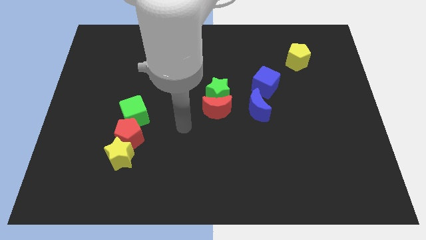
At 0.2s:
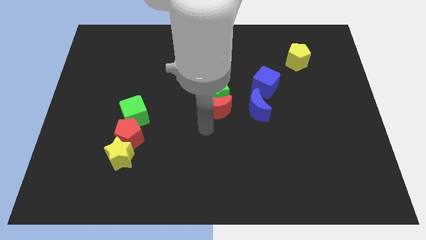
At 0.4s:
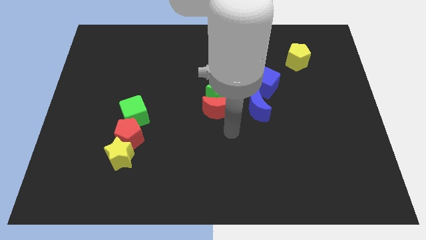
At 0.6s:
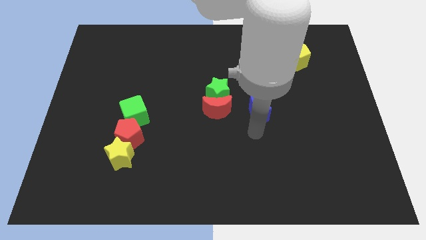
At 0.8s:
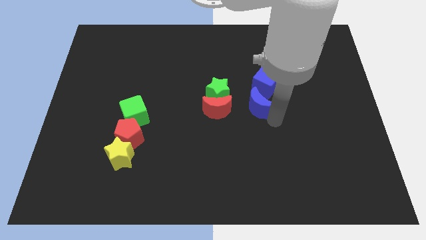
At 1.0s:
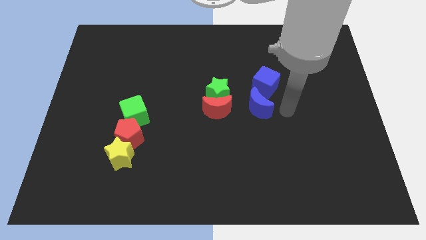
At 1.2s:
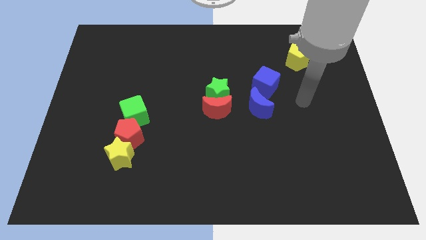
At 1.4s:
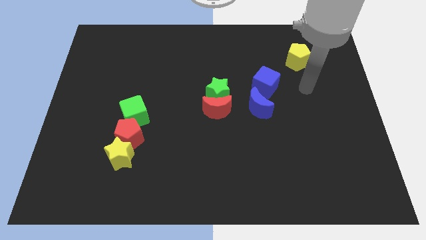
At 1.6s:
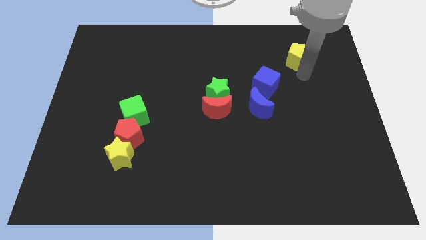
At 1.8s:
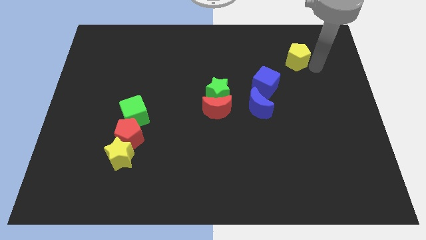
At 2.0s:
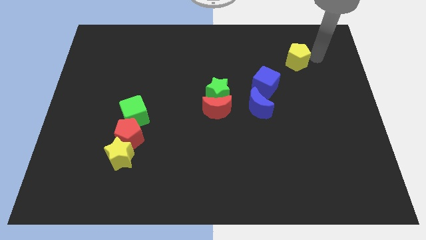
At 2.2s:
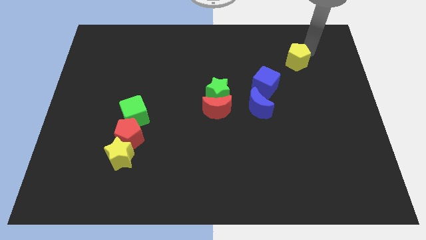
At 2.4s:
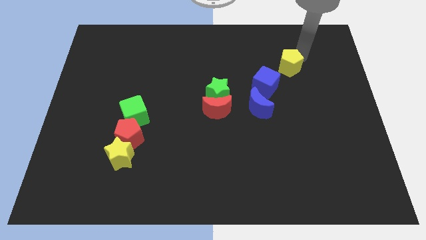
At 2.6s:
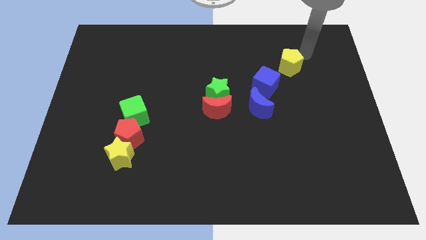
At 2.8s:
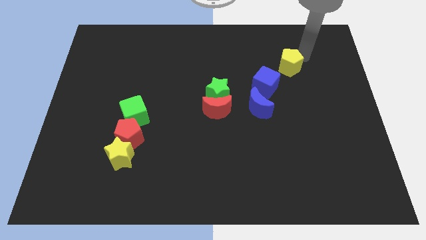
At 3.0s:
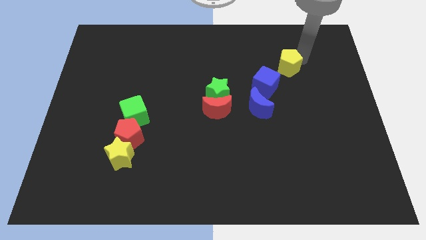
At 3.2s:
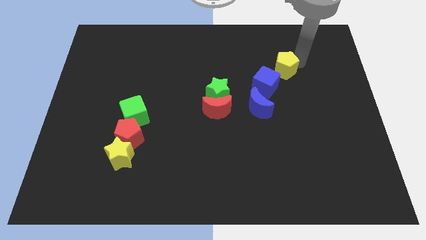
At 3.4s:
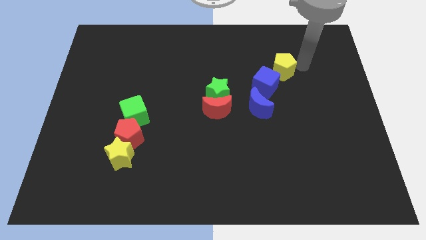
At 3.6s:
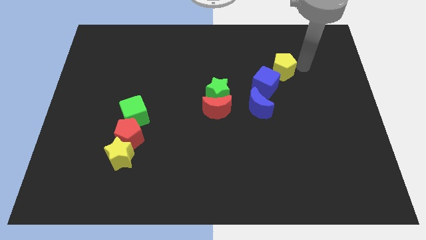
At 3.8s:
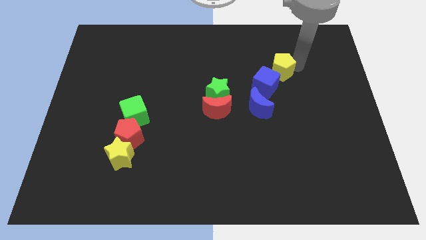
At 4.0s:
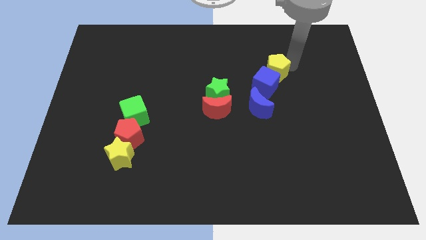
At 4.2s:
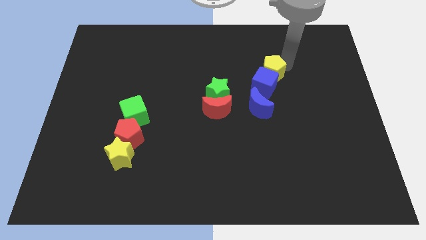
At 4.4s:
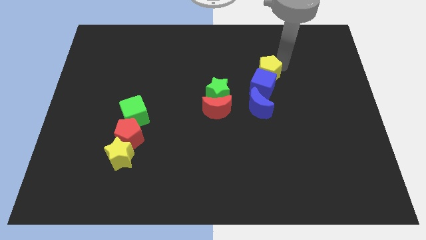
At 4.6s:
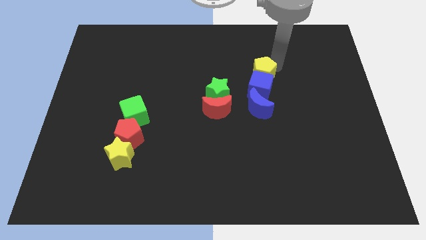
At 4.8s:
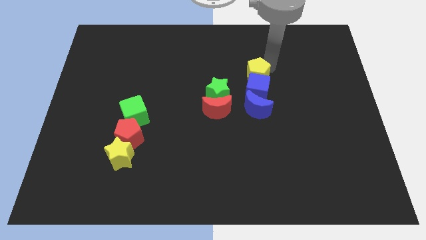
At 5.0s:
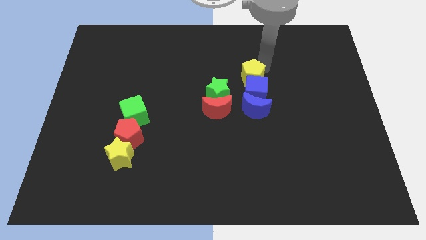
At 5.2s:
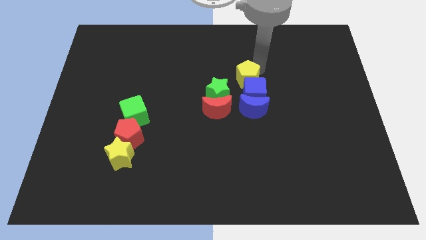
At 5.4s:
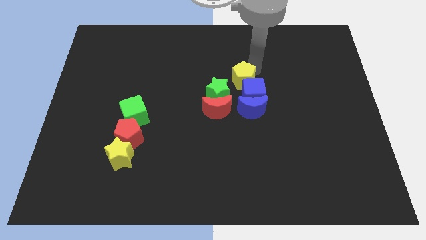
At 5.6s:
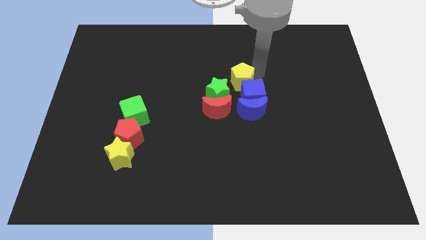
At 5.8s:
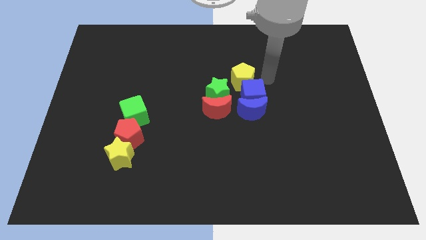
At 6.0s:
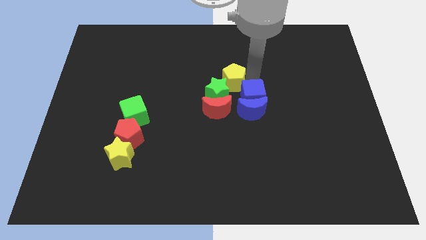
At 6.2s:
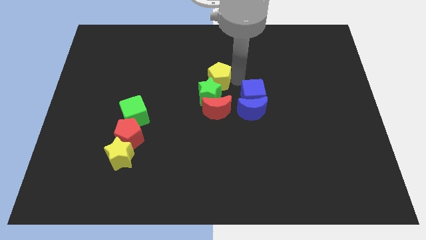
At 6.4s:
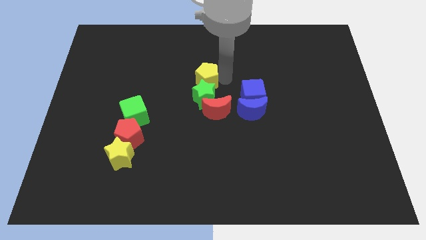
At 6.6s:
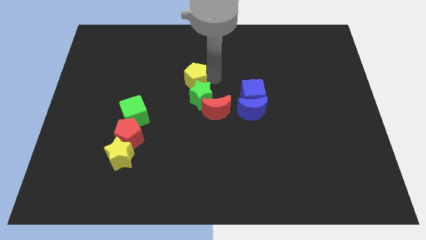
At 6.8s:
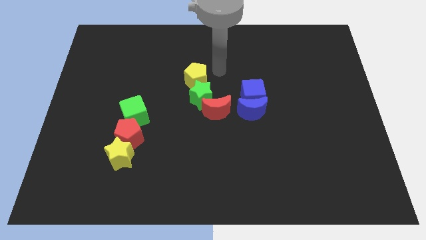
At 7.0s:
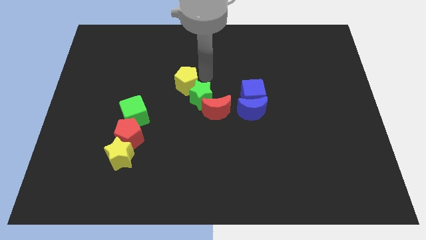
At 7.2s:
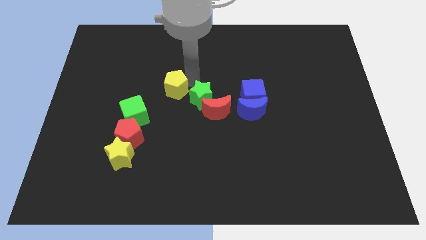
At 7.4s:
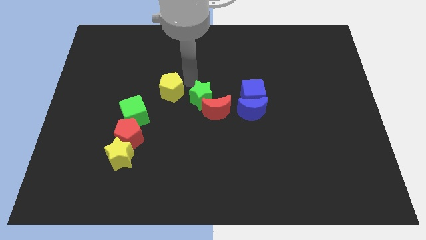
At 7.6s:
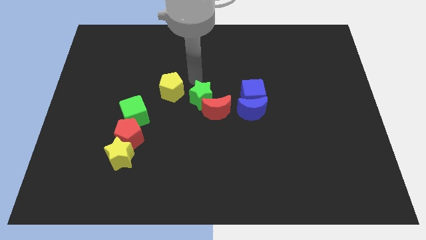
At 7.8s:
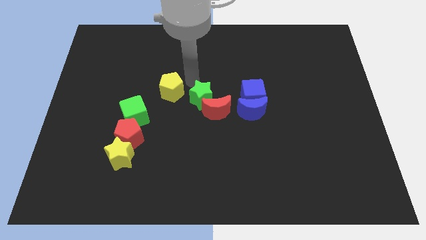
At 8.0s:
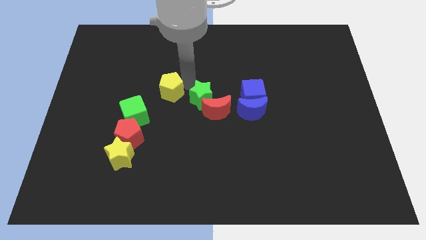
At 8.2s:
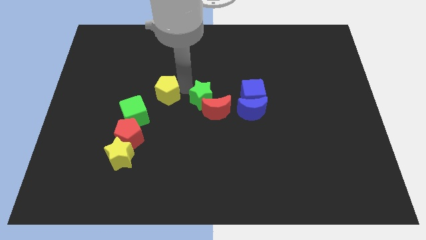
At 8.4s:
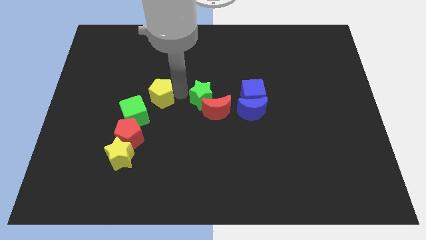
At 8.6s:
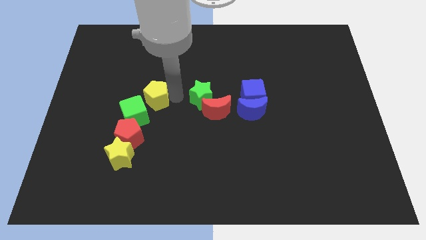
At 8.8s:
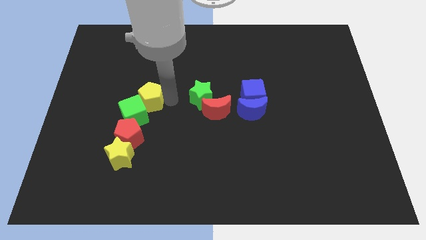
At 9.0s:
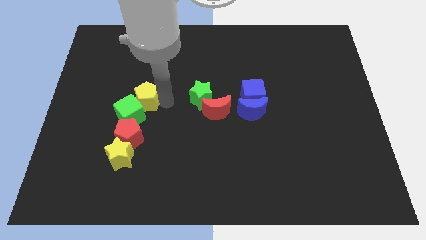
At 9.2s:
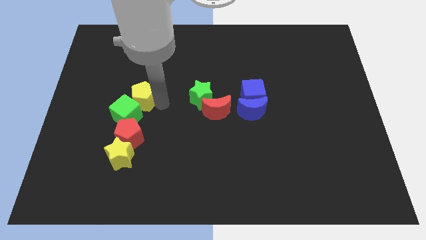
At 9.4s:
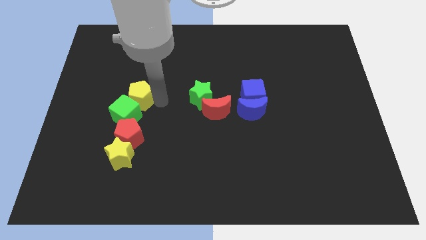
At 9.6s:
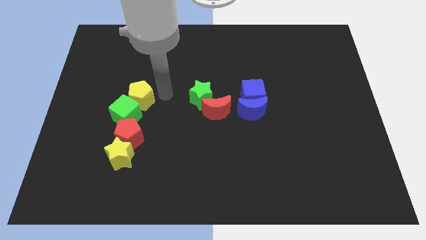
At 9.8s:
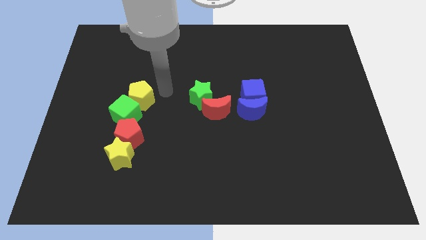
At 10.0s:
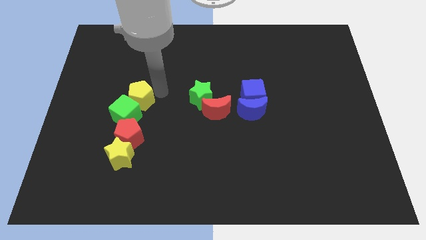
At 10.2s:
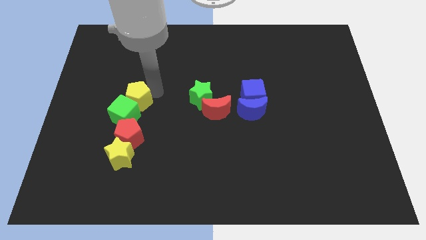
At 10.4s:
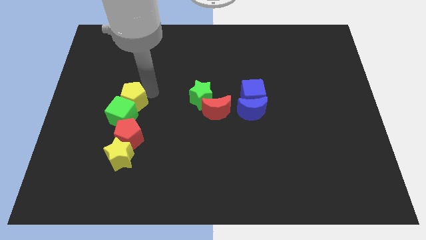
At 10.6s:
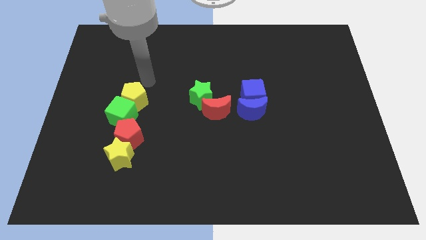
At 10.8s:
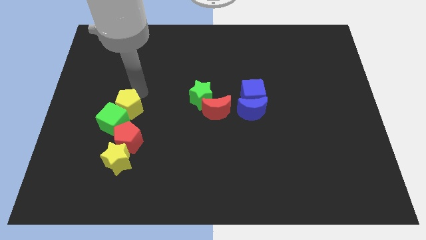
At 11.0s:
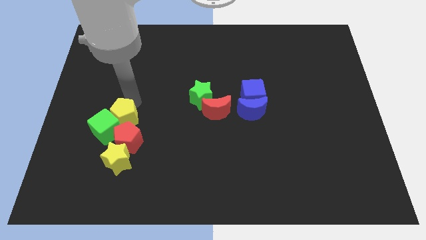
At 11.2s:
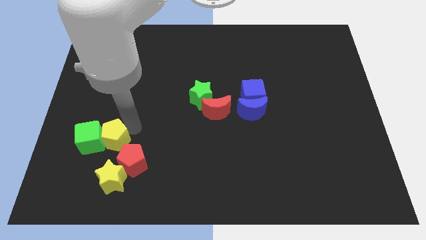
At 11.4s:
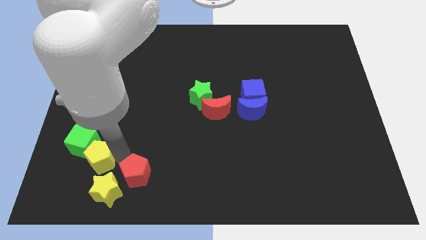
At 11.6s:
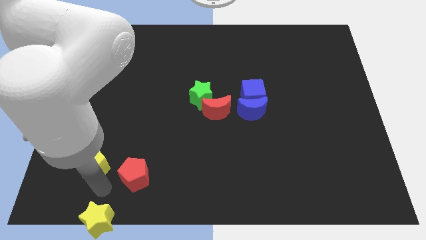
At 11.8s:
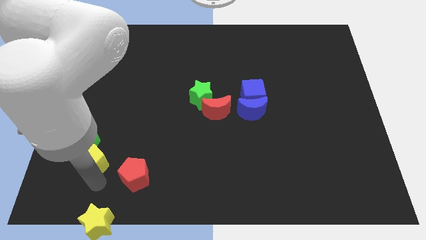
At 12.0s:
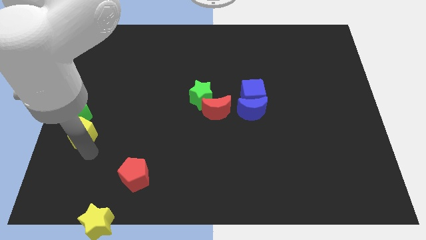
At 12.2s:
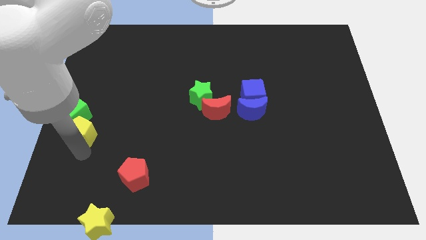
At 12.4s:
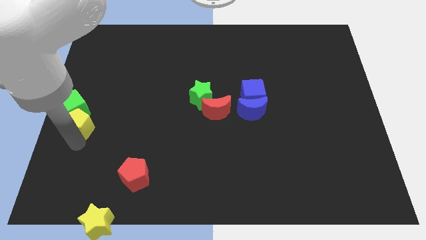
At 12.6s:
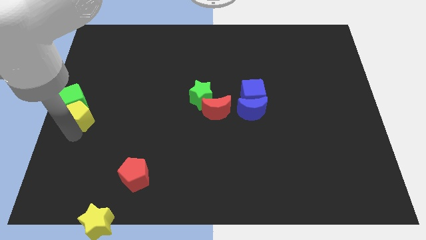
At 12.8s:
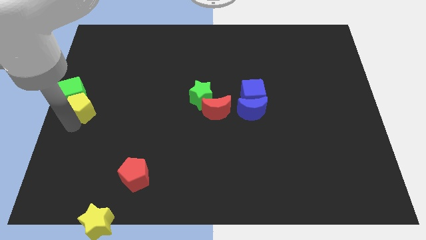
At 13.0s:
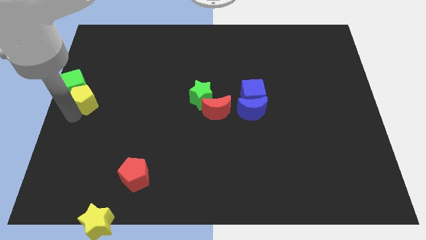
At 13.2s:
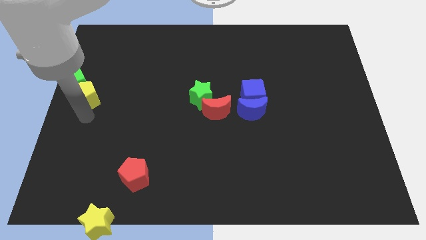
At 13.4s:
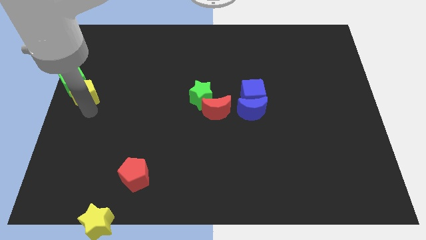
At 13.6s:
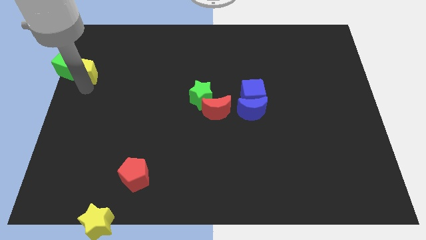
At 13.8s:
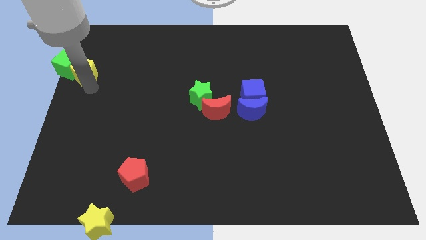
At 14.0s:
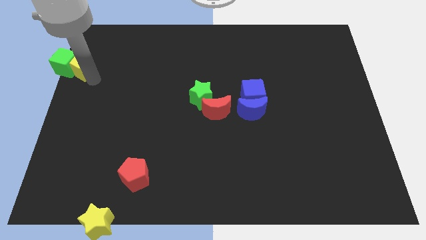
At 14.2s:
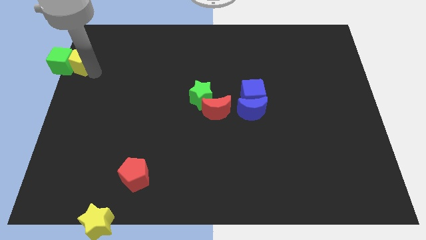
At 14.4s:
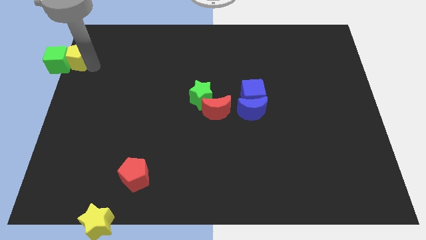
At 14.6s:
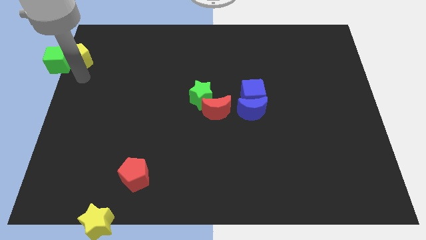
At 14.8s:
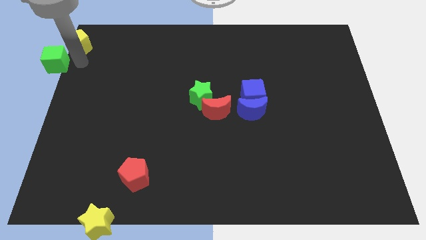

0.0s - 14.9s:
move the yellow pentagon to the upper left corner

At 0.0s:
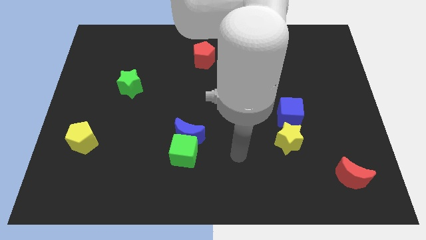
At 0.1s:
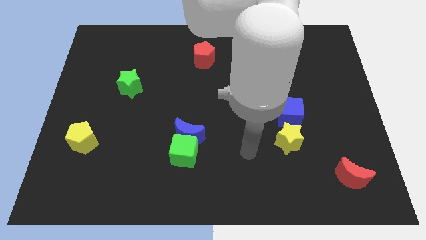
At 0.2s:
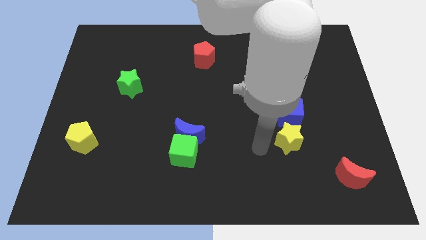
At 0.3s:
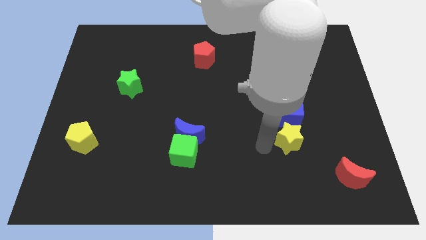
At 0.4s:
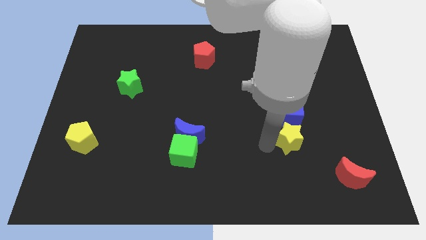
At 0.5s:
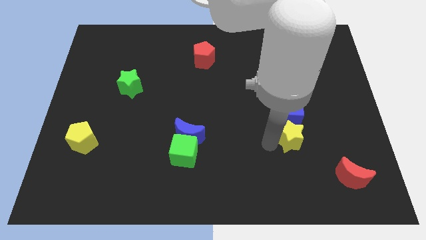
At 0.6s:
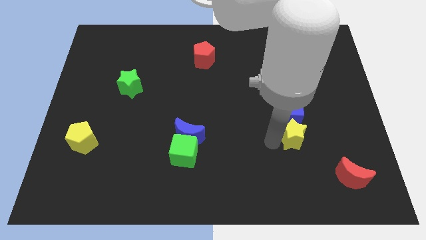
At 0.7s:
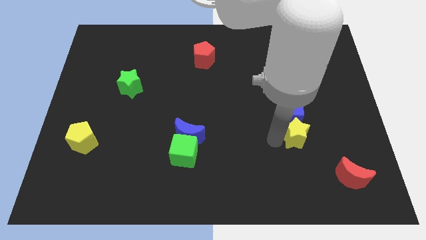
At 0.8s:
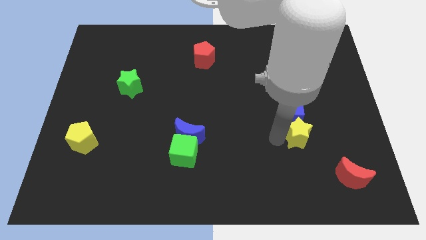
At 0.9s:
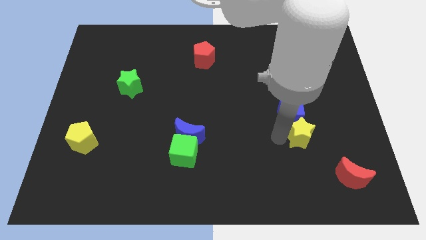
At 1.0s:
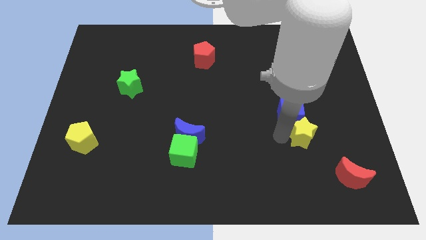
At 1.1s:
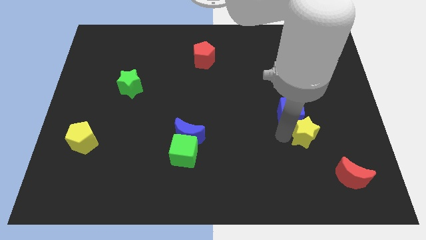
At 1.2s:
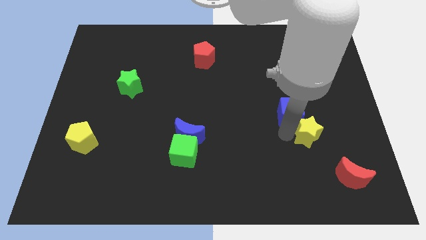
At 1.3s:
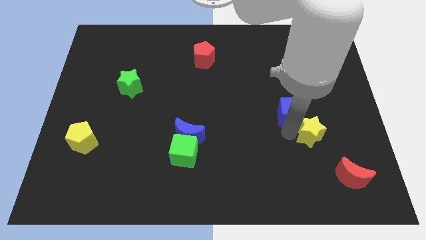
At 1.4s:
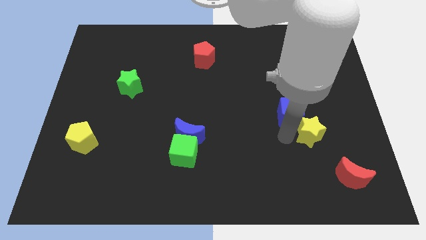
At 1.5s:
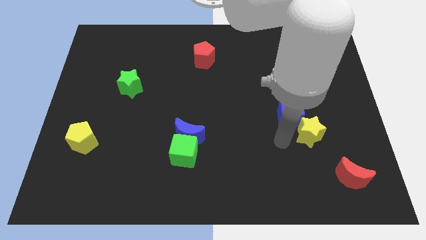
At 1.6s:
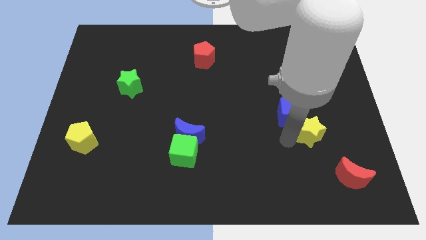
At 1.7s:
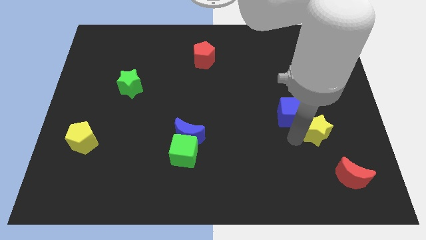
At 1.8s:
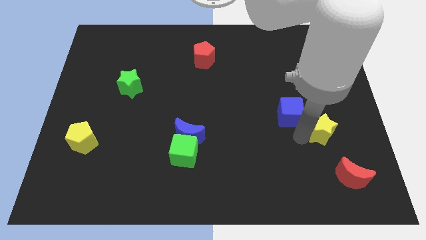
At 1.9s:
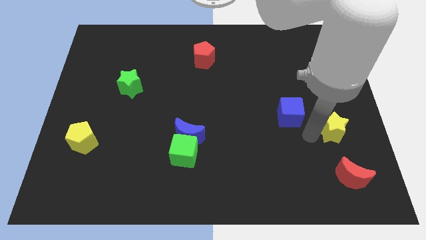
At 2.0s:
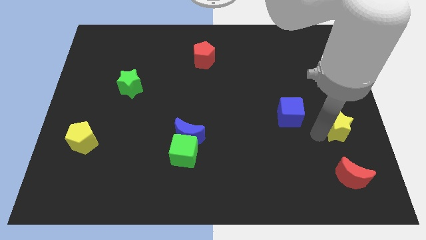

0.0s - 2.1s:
move the yellow star to the right side
